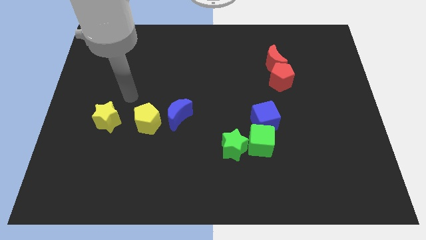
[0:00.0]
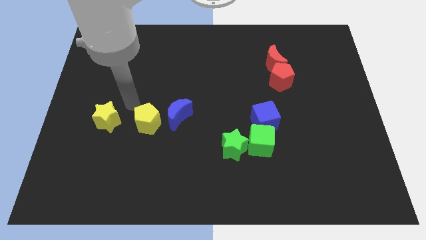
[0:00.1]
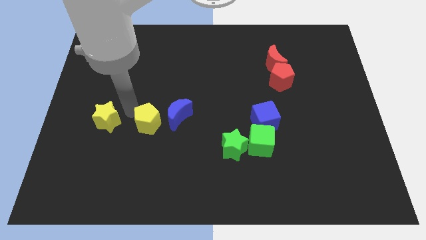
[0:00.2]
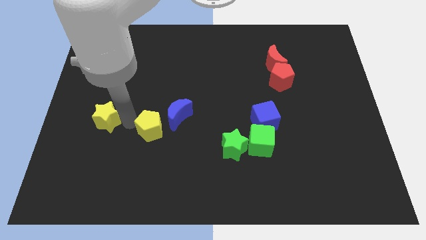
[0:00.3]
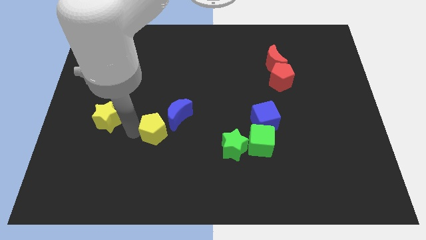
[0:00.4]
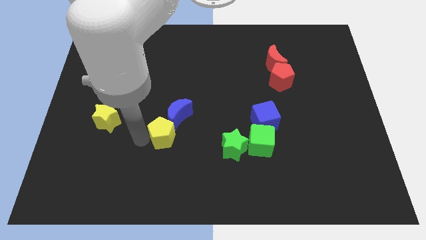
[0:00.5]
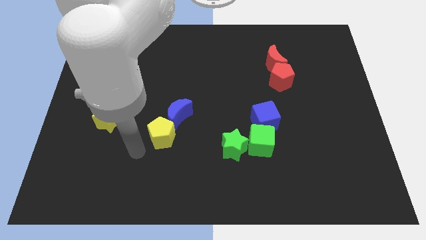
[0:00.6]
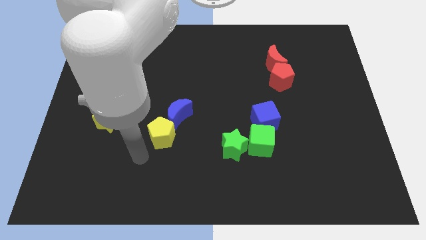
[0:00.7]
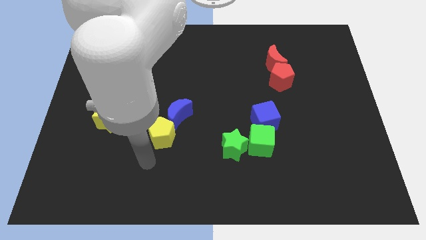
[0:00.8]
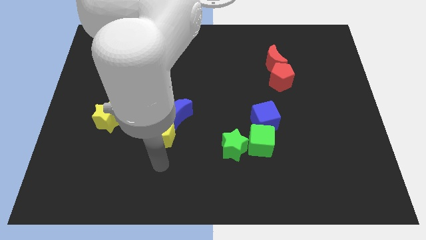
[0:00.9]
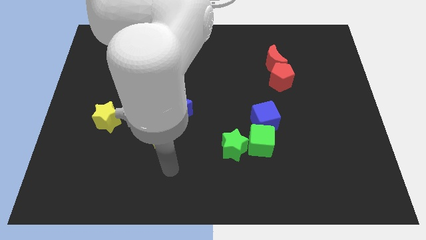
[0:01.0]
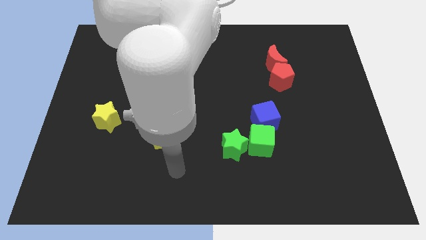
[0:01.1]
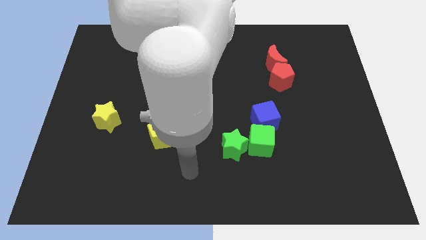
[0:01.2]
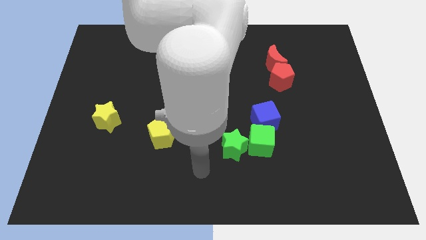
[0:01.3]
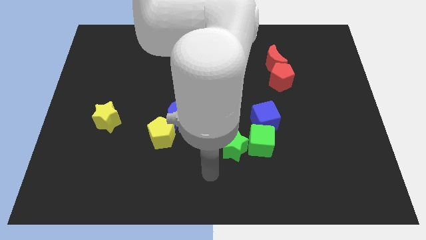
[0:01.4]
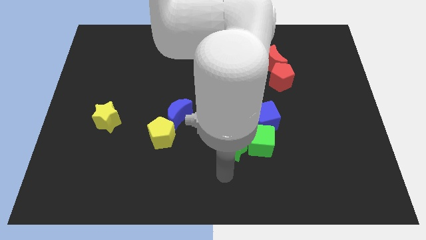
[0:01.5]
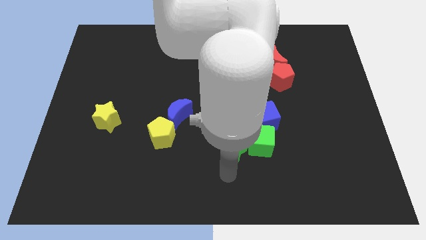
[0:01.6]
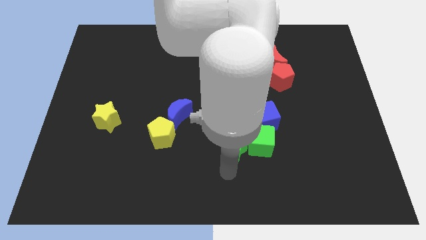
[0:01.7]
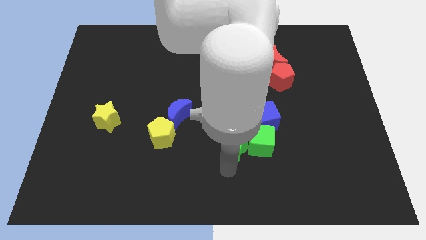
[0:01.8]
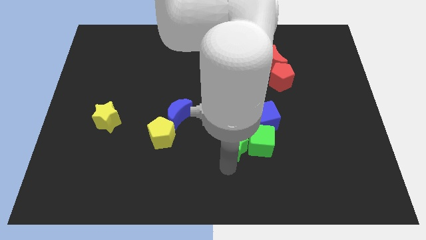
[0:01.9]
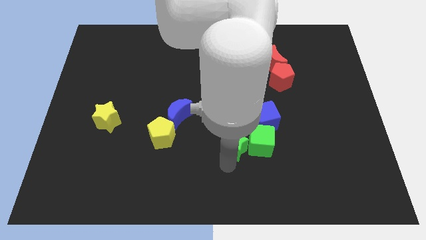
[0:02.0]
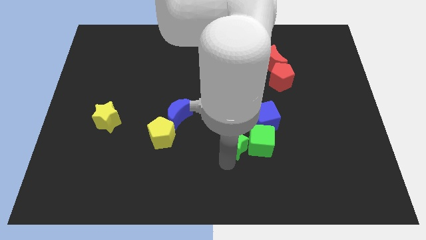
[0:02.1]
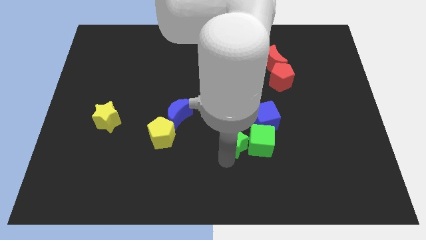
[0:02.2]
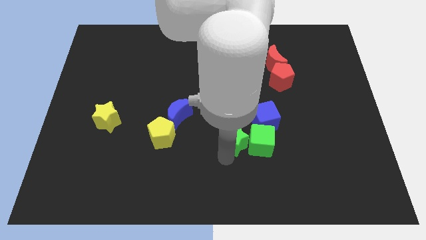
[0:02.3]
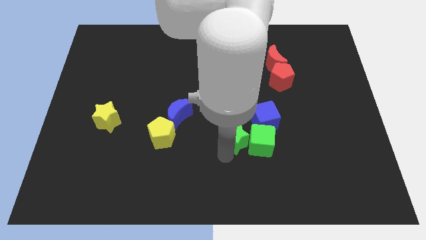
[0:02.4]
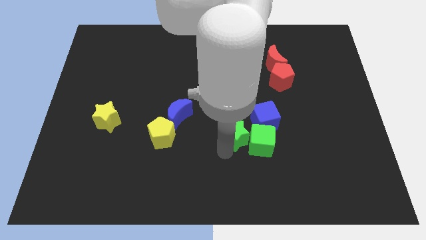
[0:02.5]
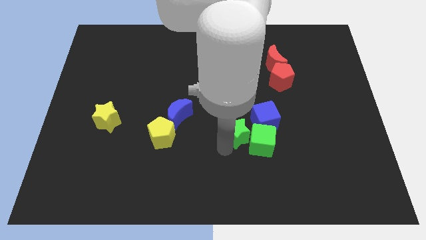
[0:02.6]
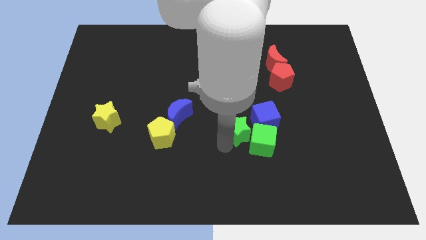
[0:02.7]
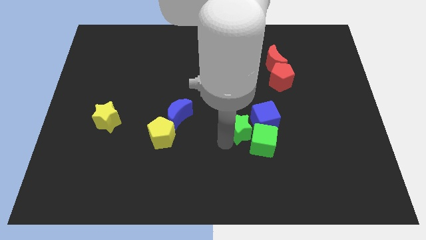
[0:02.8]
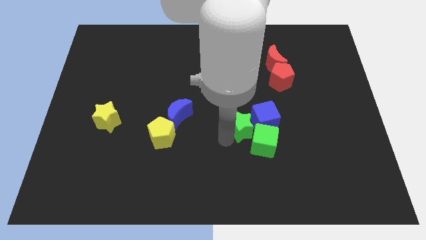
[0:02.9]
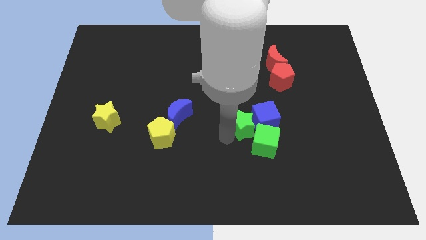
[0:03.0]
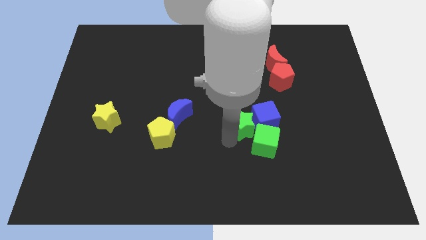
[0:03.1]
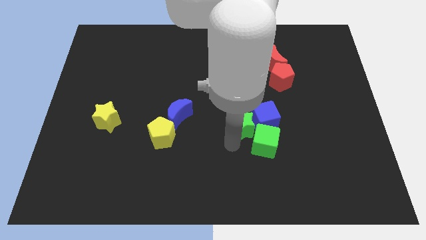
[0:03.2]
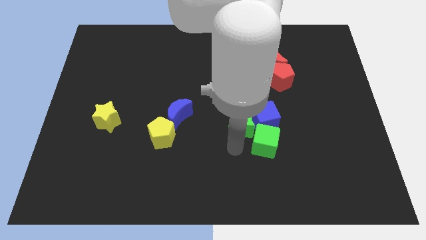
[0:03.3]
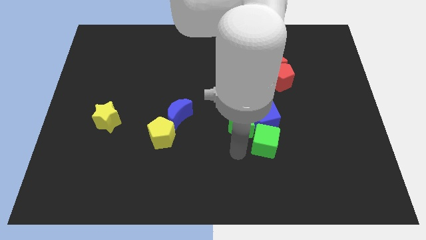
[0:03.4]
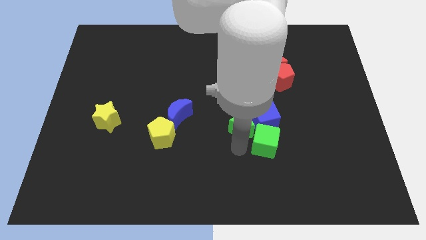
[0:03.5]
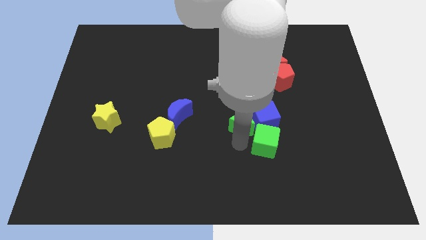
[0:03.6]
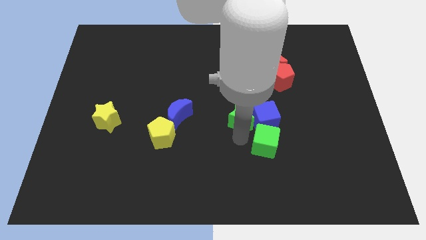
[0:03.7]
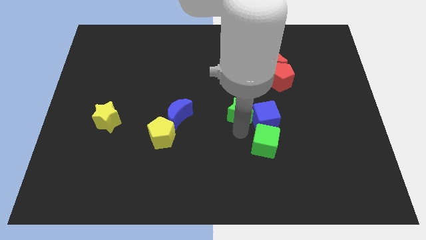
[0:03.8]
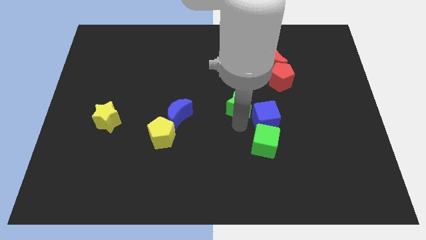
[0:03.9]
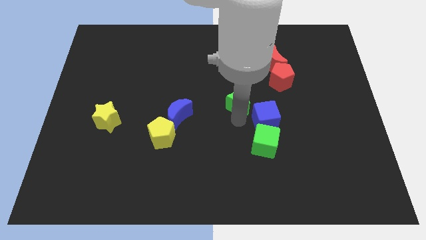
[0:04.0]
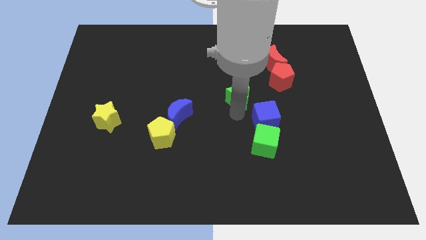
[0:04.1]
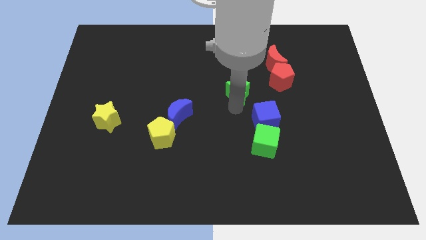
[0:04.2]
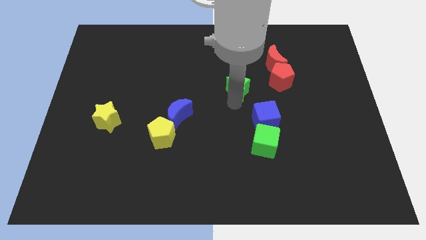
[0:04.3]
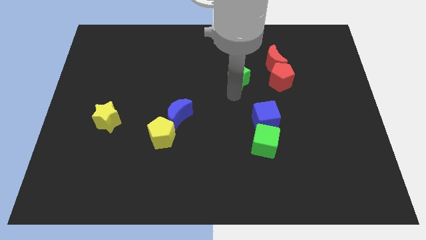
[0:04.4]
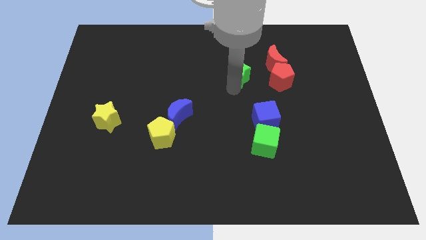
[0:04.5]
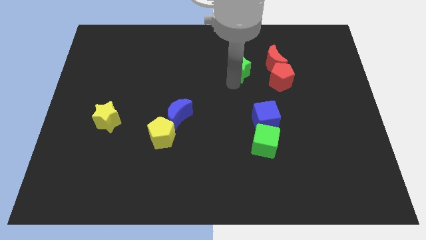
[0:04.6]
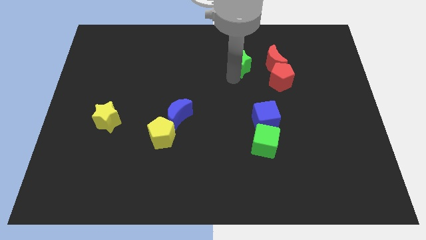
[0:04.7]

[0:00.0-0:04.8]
push the green star to the top left side of the red pentagon

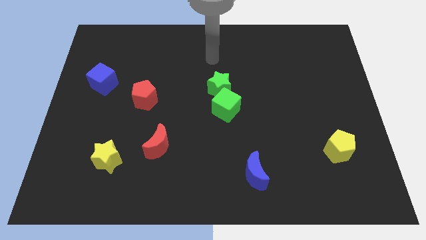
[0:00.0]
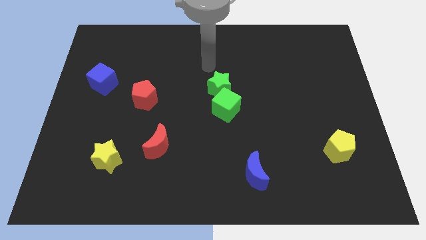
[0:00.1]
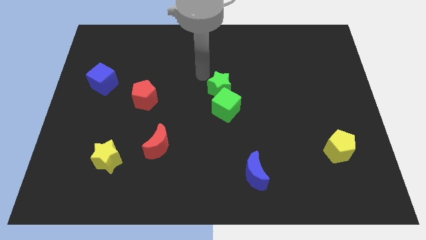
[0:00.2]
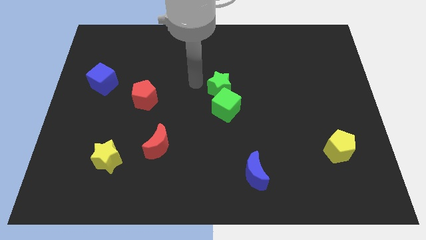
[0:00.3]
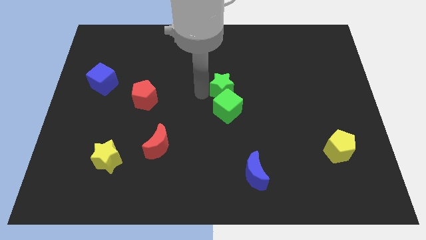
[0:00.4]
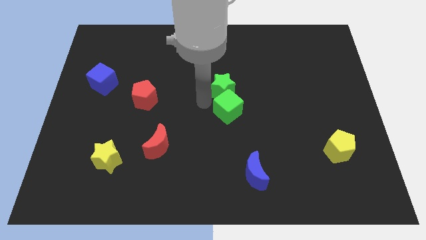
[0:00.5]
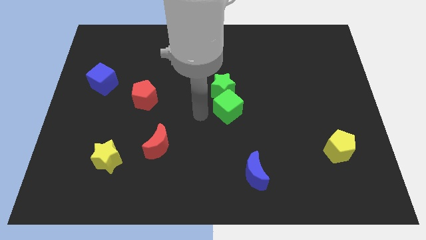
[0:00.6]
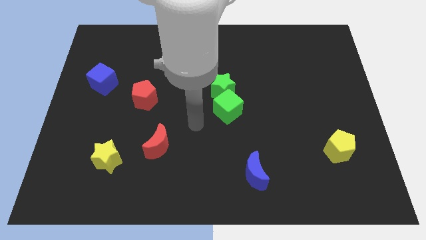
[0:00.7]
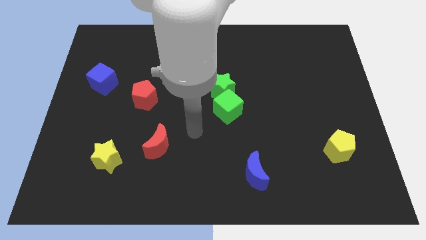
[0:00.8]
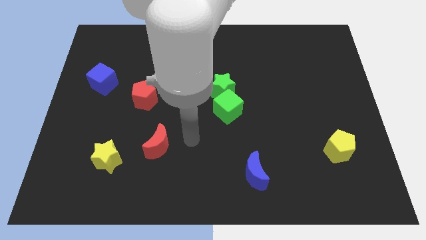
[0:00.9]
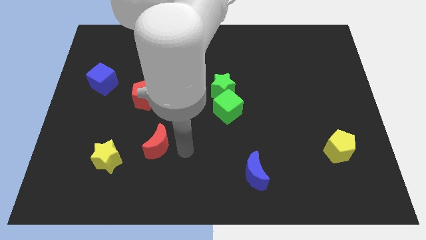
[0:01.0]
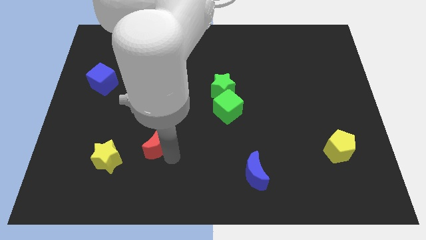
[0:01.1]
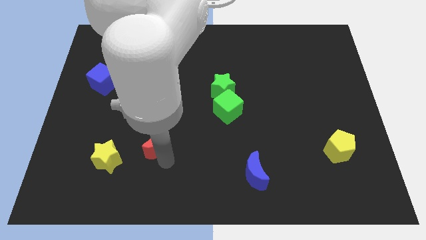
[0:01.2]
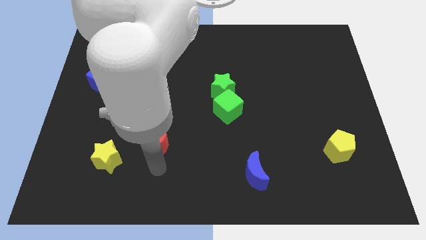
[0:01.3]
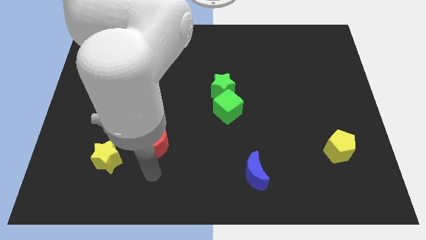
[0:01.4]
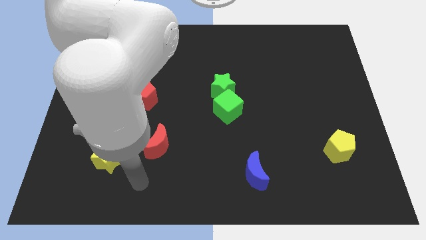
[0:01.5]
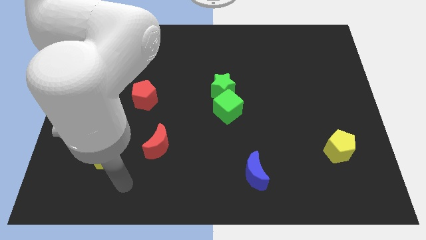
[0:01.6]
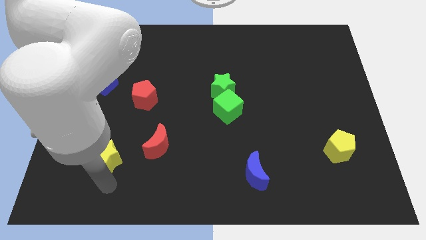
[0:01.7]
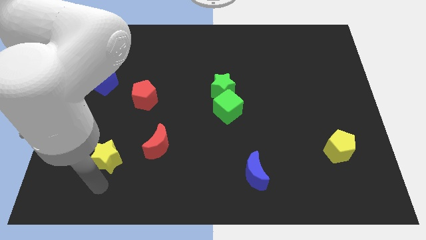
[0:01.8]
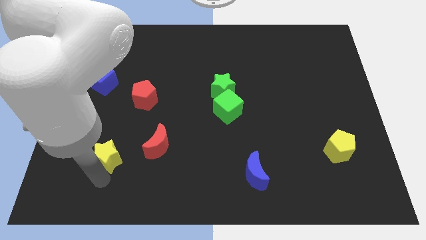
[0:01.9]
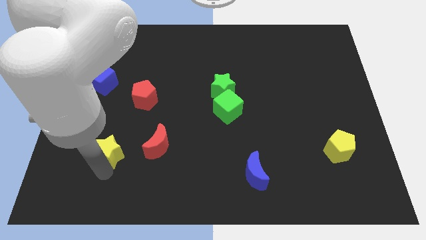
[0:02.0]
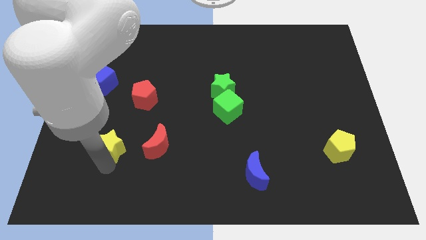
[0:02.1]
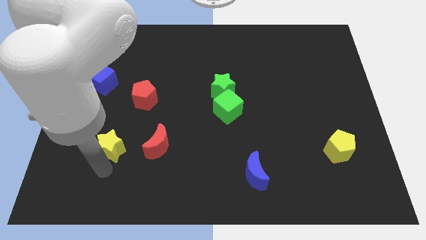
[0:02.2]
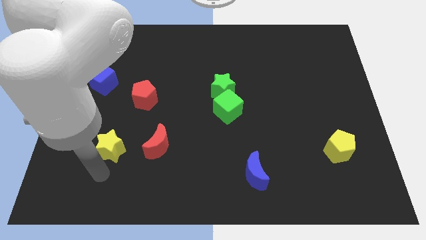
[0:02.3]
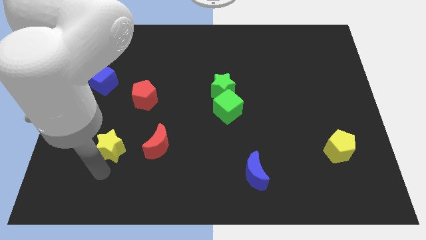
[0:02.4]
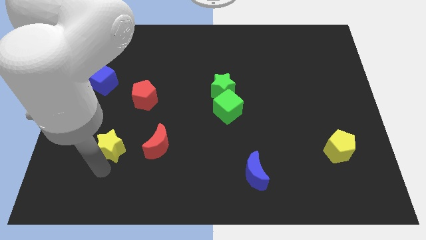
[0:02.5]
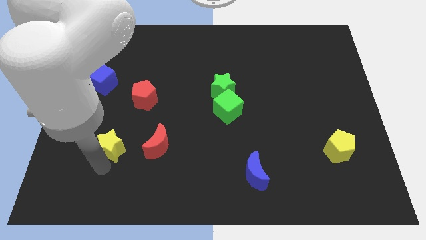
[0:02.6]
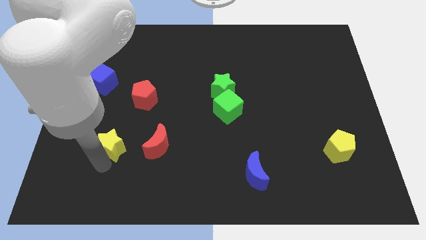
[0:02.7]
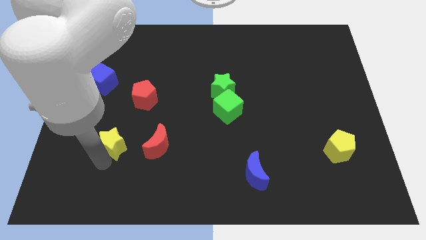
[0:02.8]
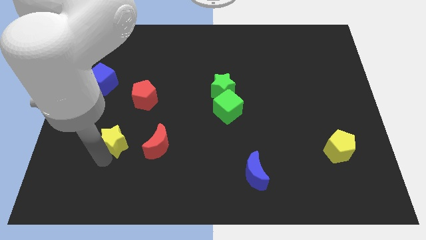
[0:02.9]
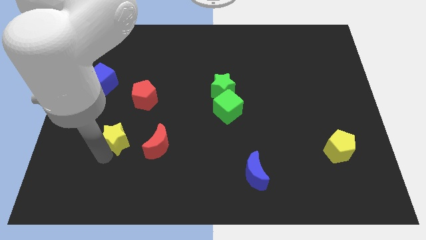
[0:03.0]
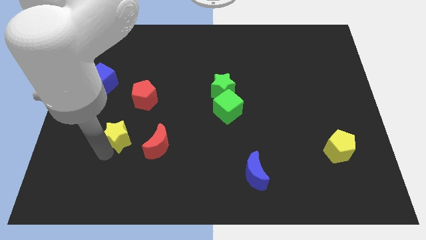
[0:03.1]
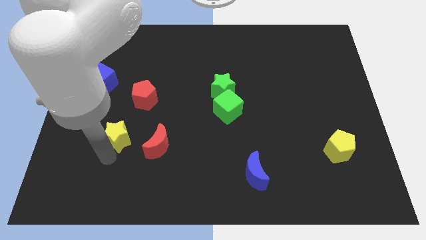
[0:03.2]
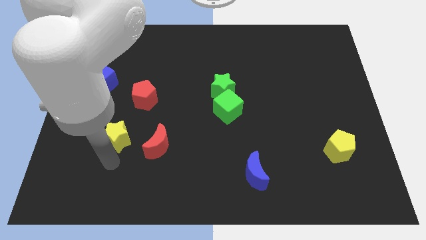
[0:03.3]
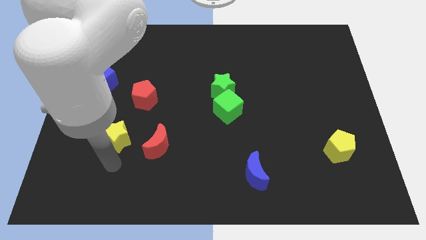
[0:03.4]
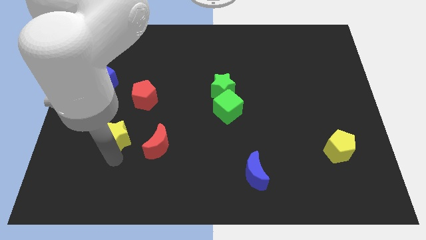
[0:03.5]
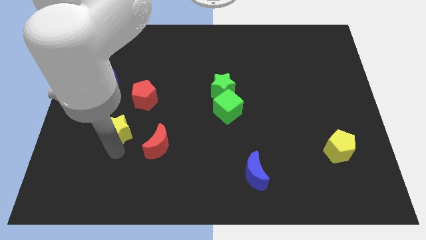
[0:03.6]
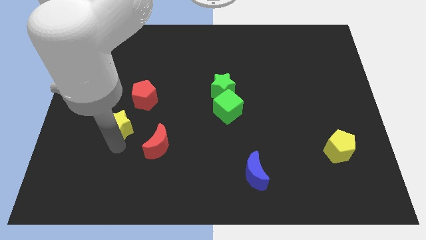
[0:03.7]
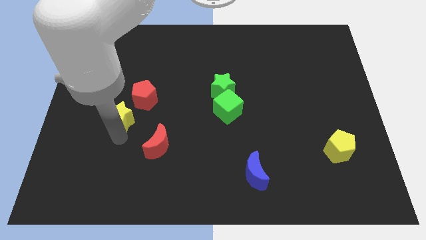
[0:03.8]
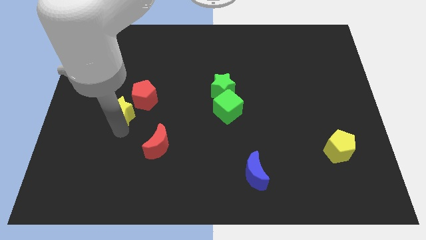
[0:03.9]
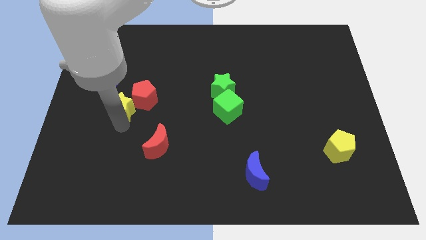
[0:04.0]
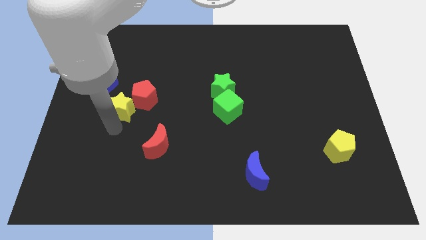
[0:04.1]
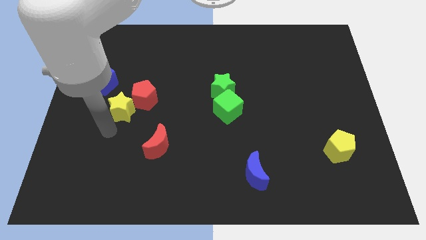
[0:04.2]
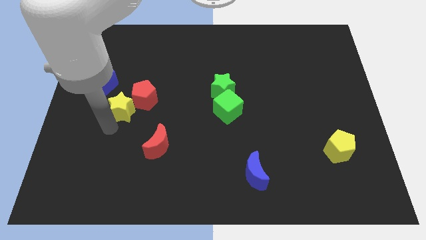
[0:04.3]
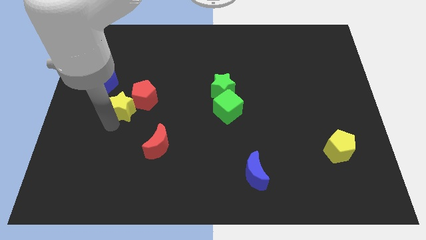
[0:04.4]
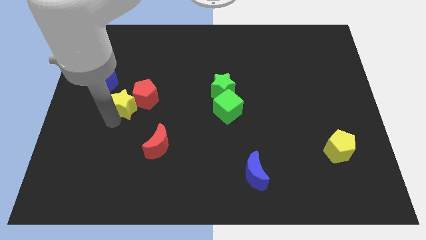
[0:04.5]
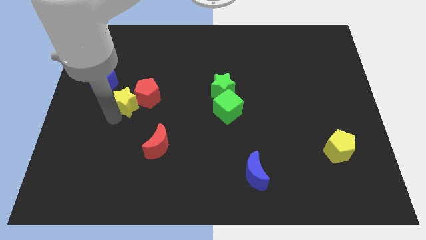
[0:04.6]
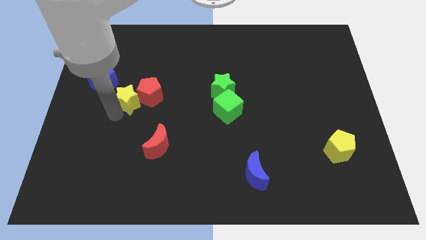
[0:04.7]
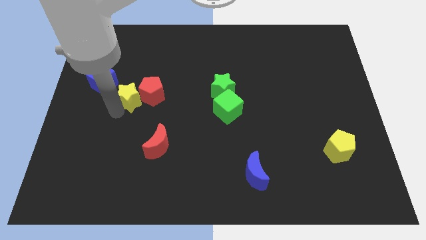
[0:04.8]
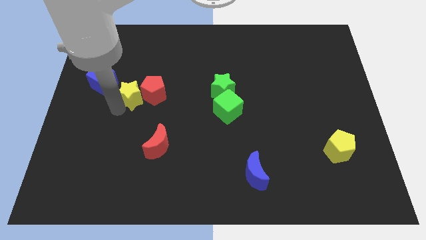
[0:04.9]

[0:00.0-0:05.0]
put the yellow star right of the blue cube
